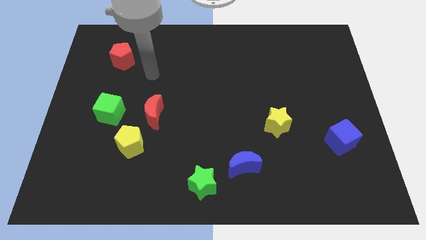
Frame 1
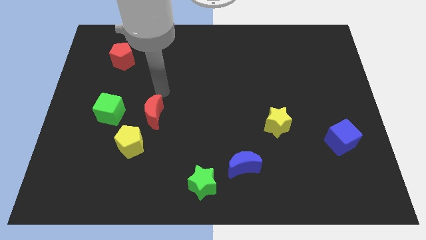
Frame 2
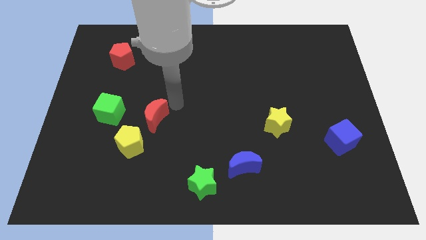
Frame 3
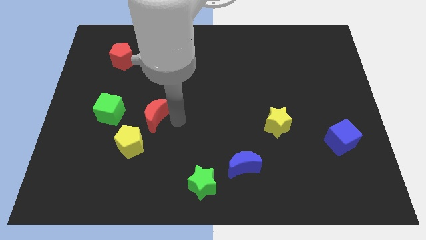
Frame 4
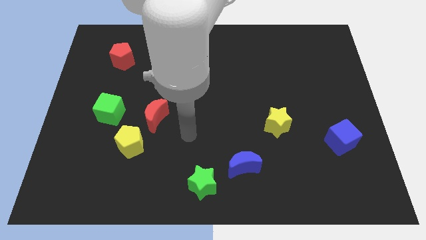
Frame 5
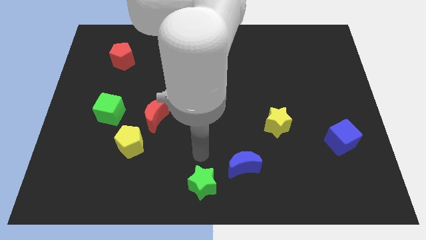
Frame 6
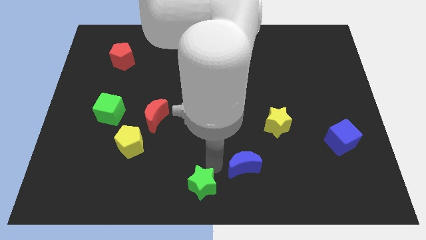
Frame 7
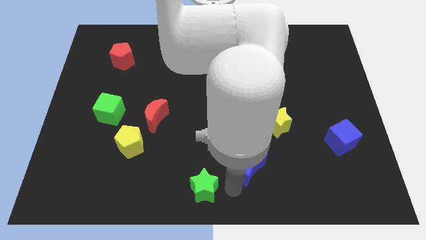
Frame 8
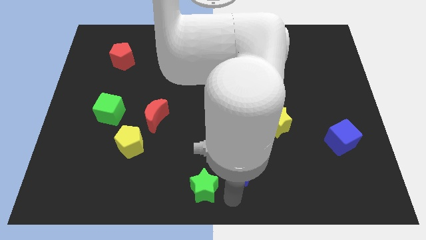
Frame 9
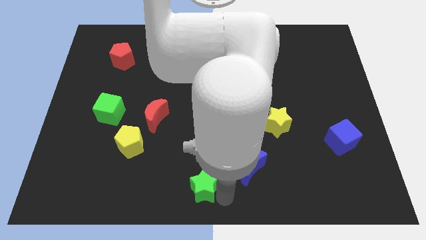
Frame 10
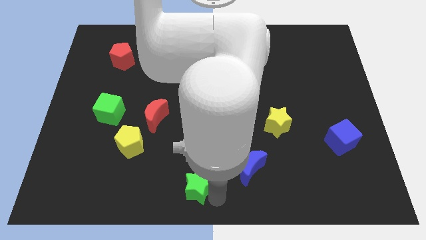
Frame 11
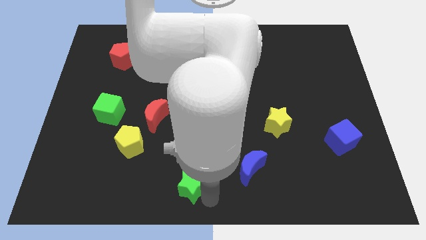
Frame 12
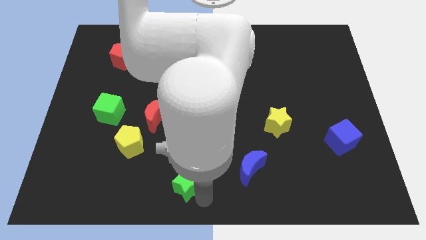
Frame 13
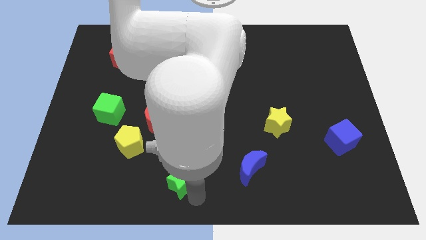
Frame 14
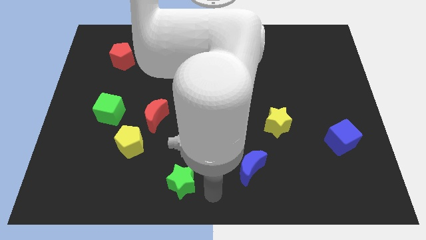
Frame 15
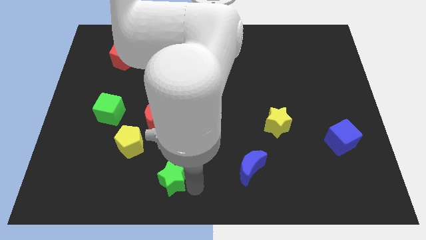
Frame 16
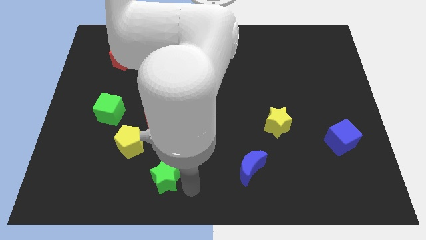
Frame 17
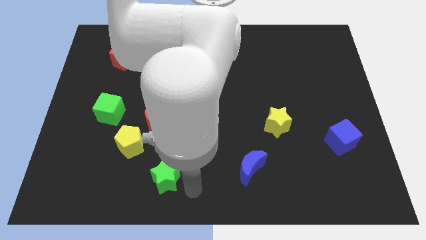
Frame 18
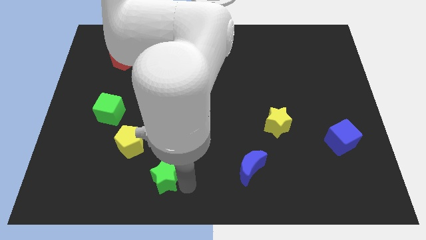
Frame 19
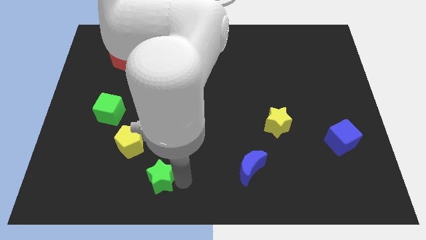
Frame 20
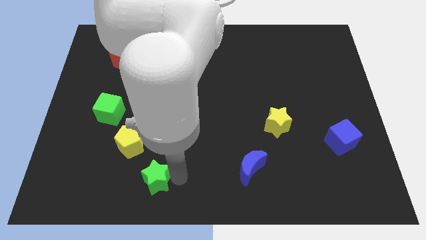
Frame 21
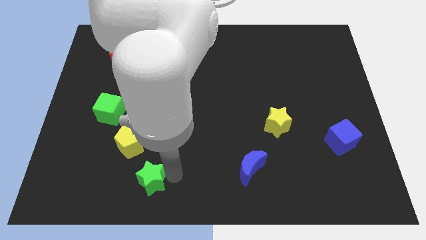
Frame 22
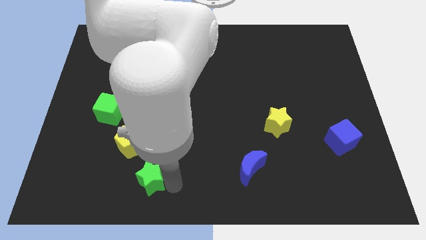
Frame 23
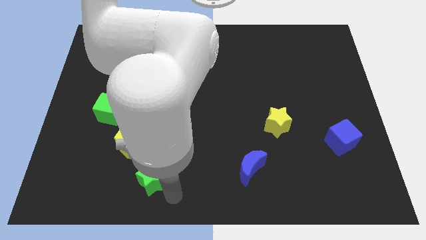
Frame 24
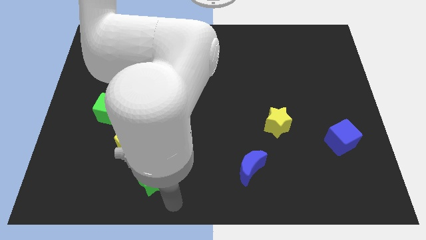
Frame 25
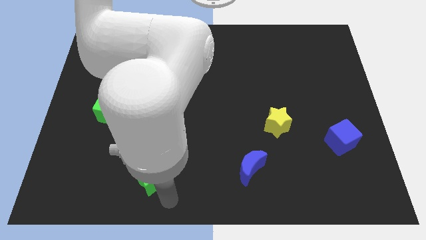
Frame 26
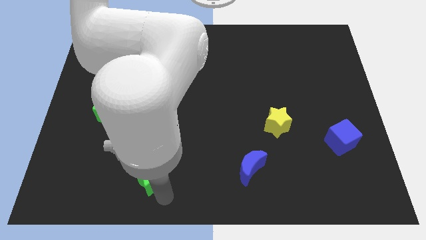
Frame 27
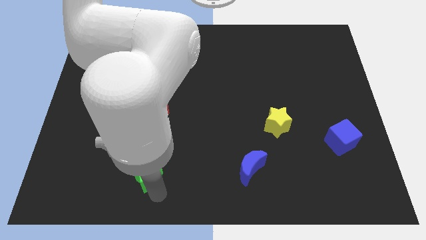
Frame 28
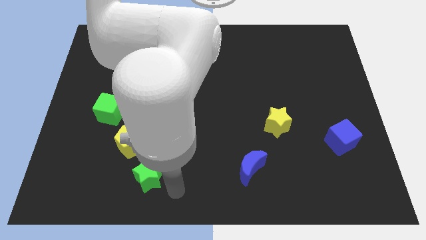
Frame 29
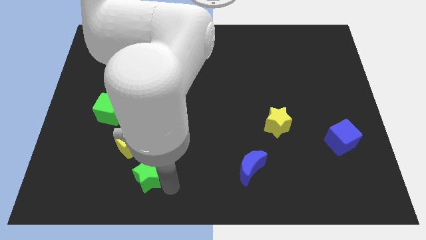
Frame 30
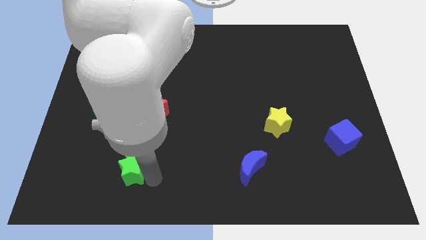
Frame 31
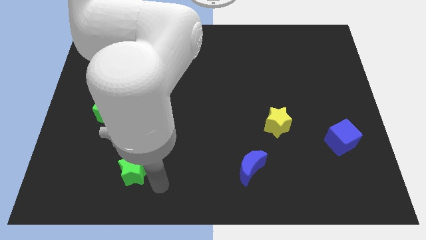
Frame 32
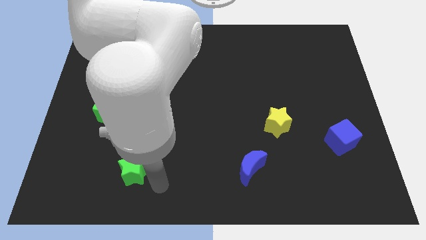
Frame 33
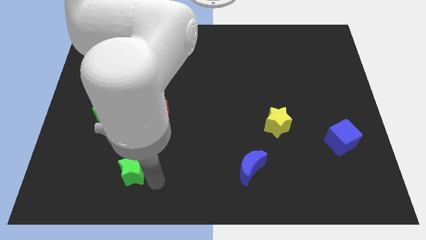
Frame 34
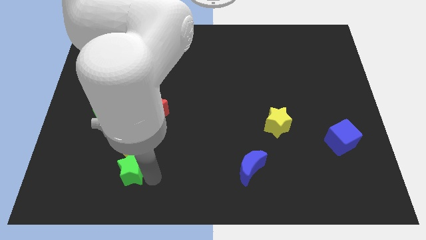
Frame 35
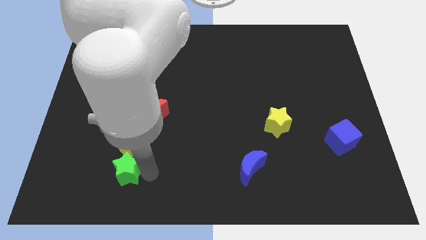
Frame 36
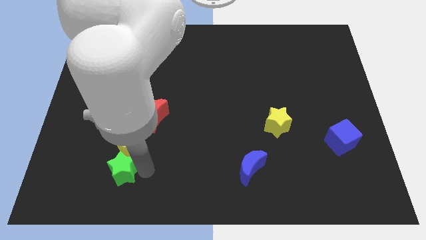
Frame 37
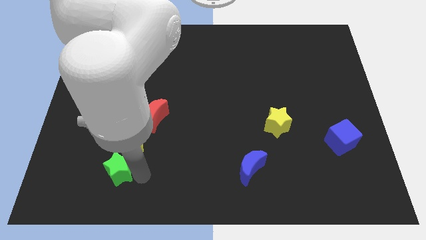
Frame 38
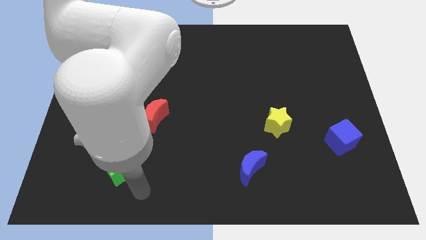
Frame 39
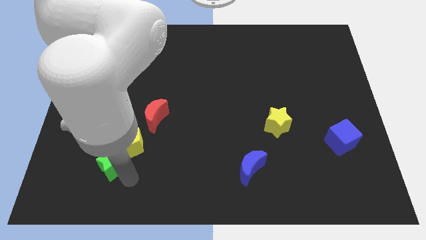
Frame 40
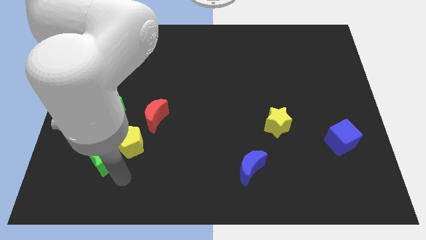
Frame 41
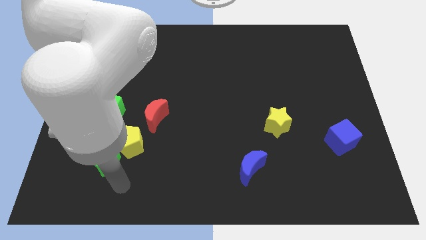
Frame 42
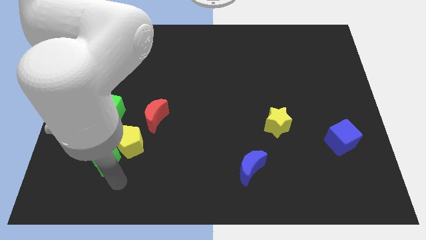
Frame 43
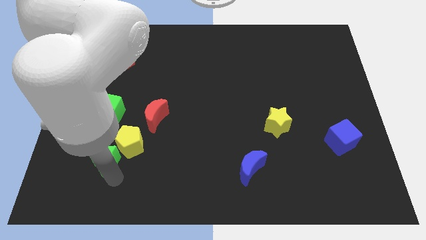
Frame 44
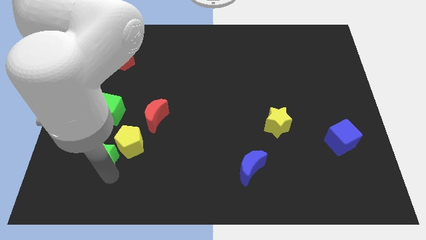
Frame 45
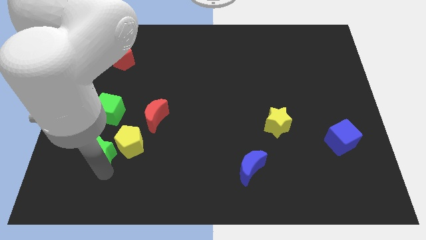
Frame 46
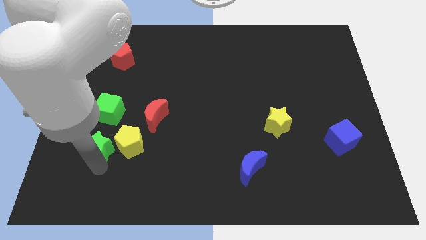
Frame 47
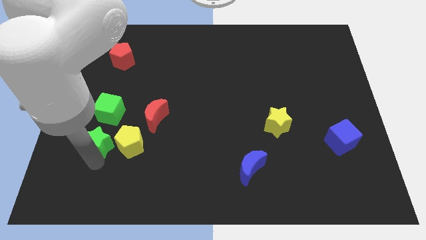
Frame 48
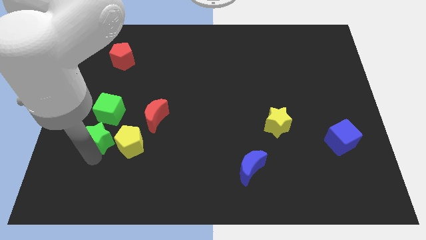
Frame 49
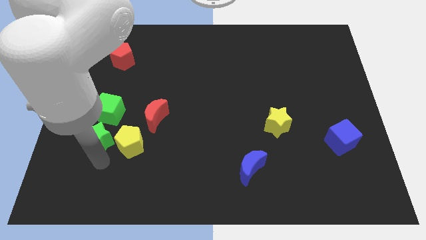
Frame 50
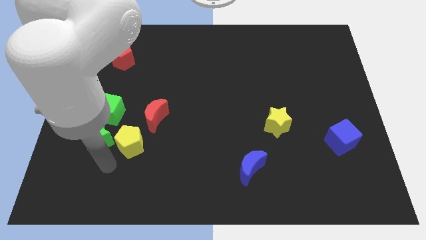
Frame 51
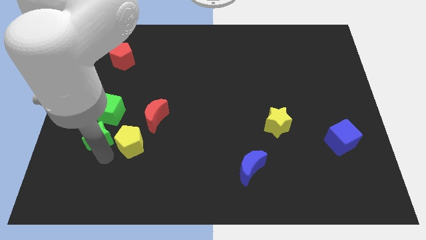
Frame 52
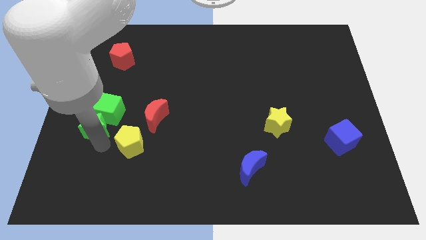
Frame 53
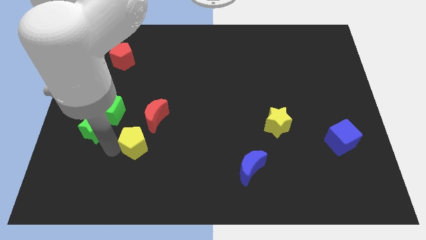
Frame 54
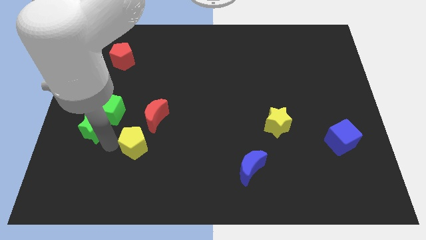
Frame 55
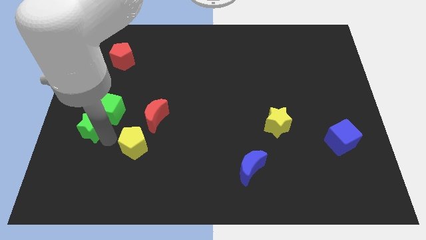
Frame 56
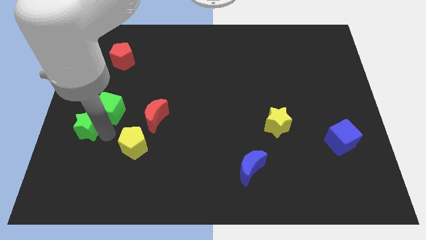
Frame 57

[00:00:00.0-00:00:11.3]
slide the green star to the left side of the board

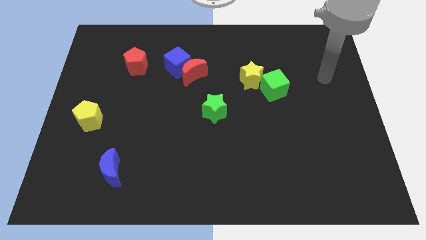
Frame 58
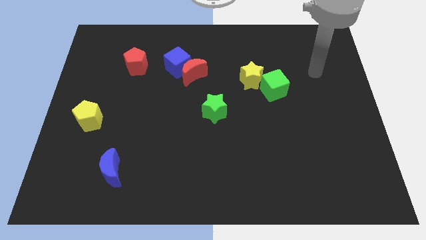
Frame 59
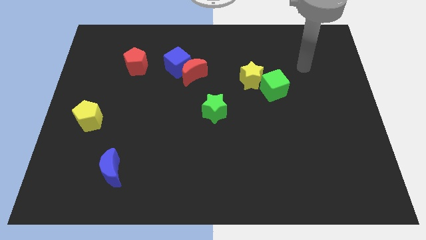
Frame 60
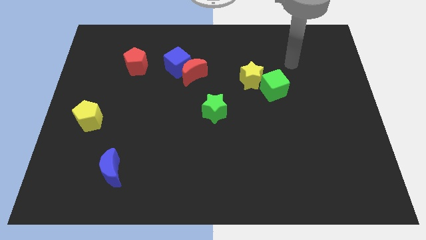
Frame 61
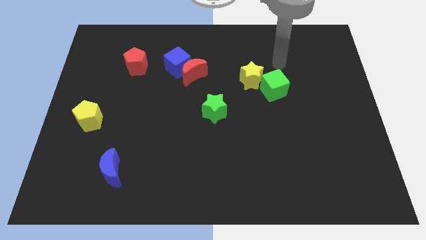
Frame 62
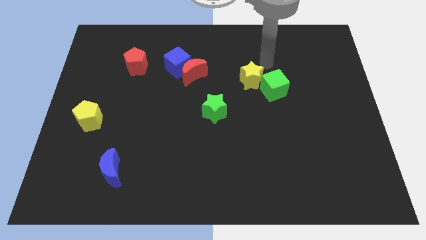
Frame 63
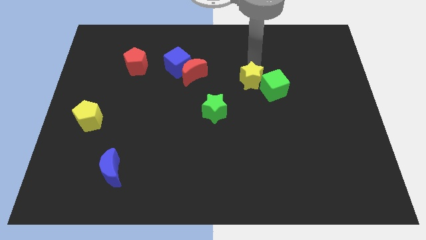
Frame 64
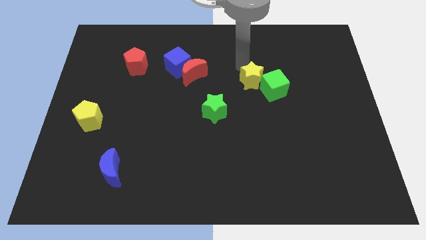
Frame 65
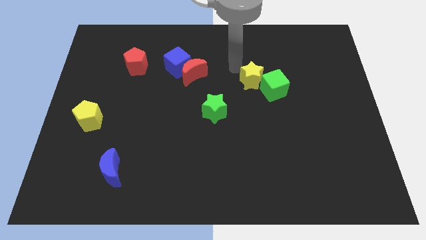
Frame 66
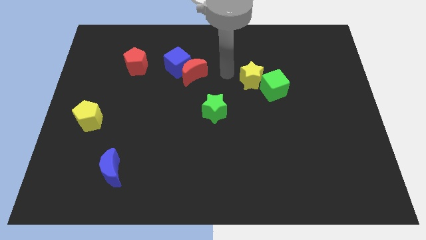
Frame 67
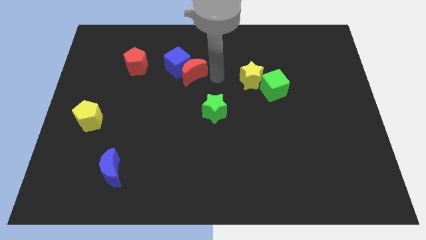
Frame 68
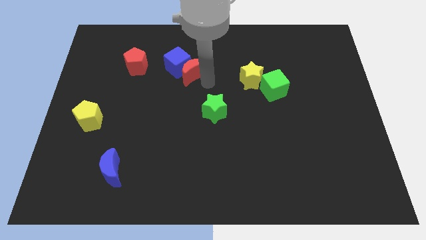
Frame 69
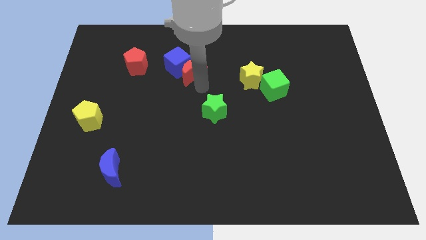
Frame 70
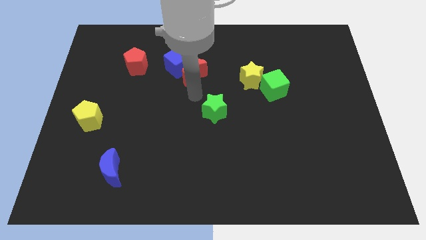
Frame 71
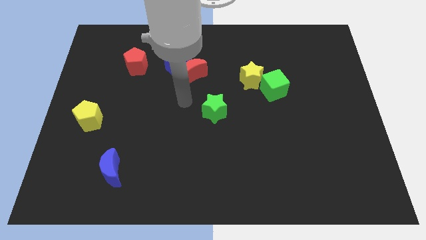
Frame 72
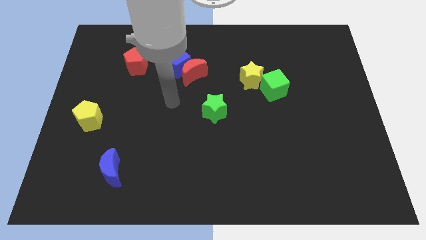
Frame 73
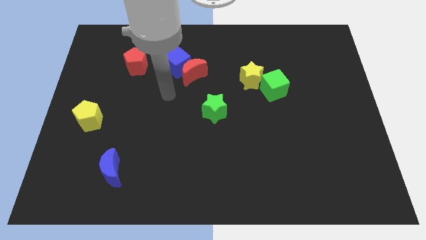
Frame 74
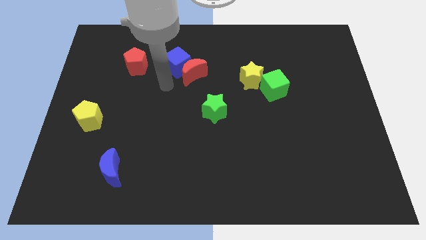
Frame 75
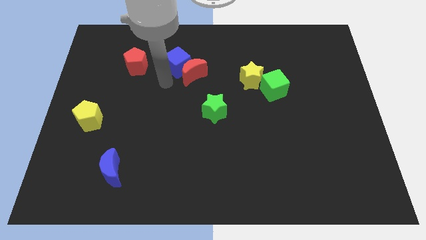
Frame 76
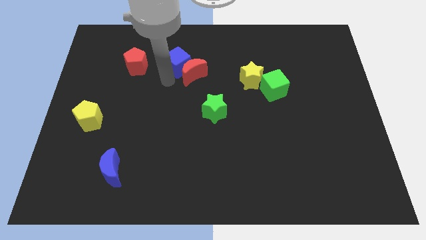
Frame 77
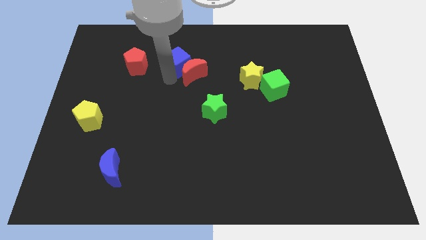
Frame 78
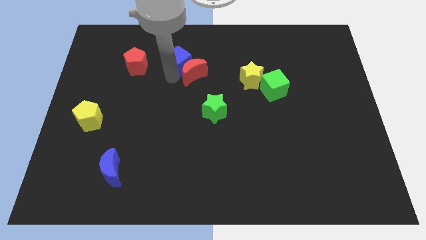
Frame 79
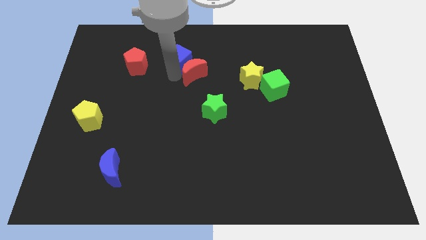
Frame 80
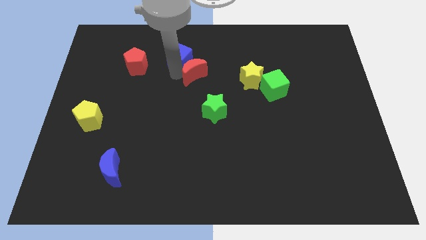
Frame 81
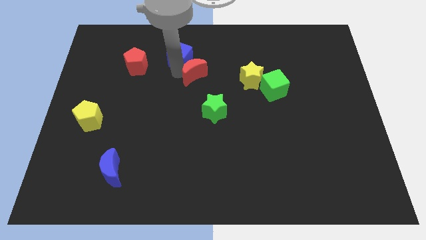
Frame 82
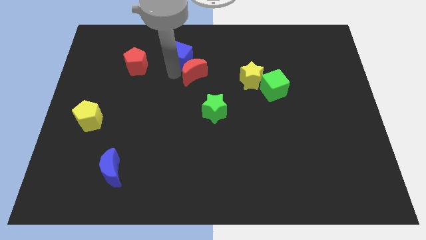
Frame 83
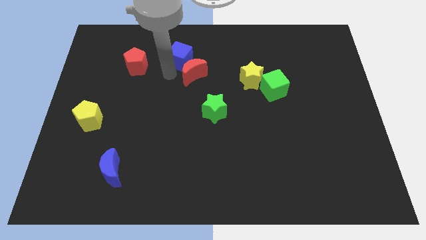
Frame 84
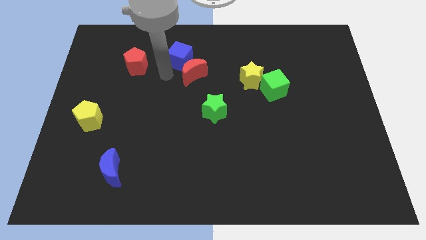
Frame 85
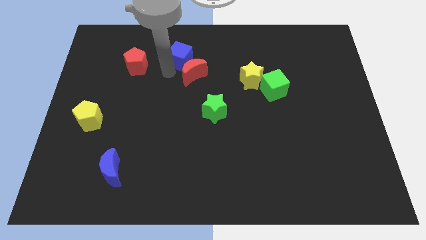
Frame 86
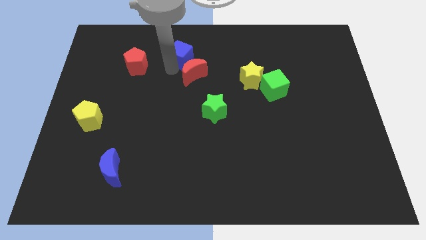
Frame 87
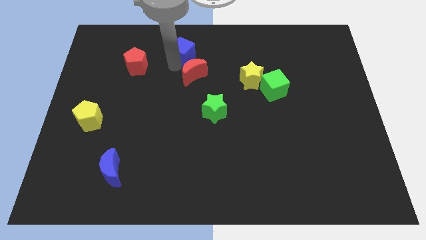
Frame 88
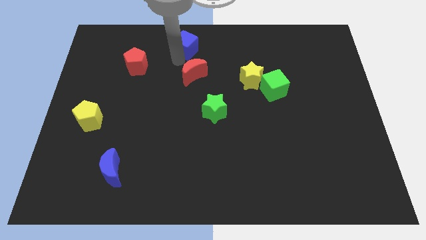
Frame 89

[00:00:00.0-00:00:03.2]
move the blue cube to the top side
